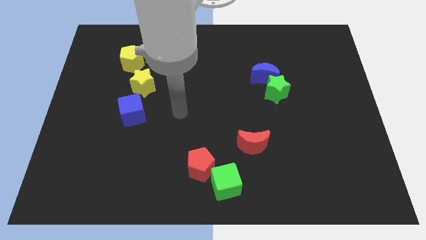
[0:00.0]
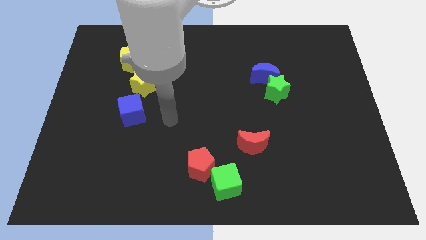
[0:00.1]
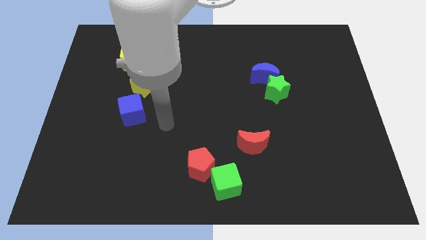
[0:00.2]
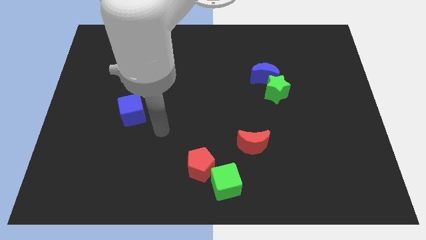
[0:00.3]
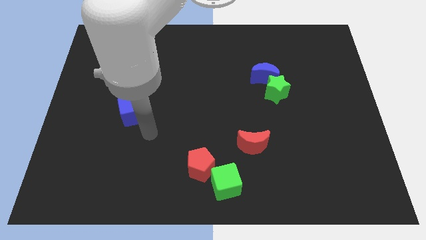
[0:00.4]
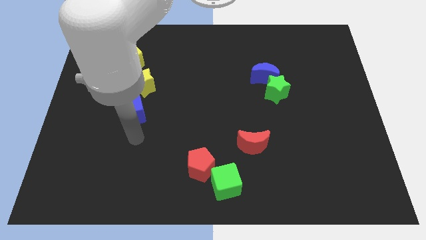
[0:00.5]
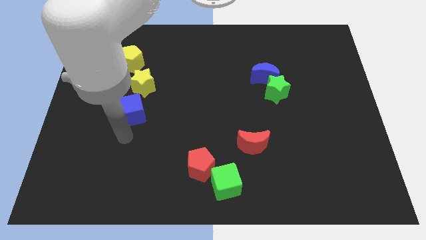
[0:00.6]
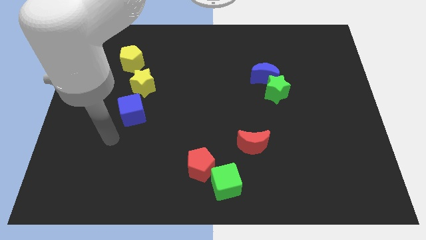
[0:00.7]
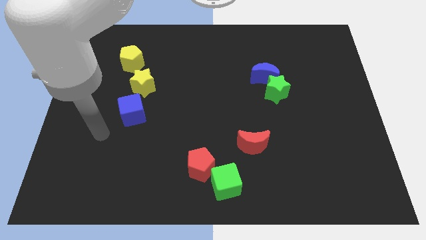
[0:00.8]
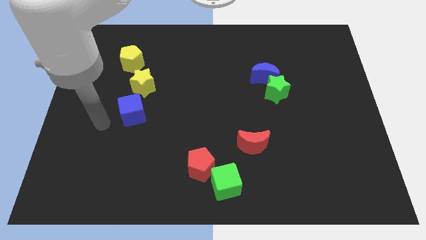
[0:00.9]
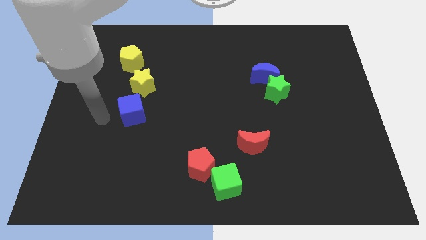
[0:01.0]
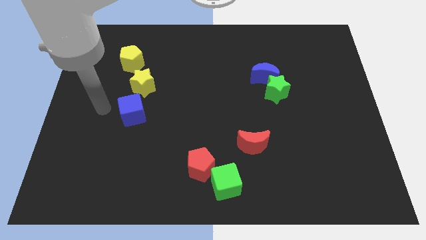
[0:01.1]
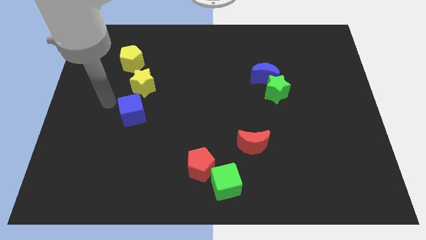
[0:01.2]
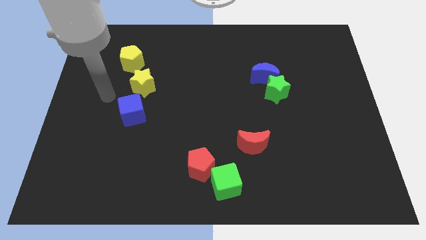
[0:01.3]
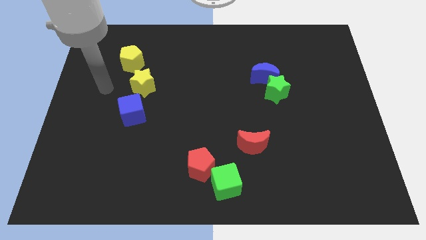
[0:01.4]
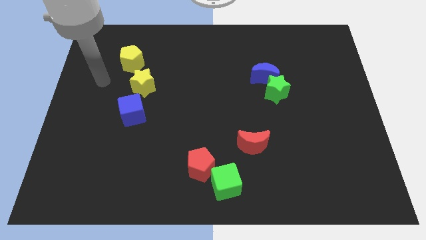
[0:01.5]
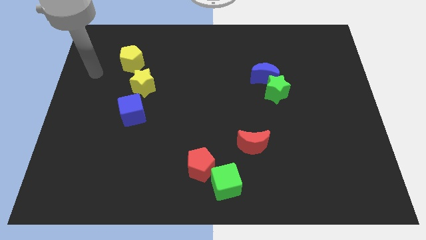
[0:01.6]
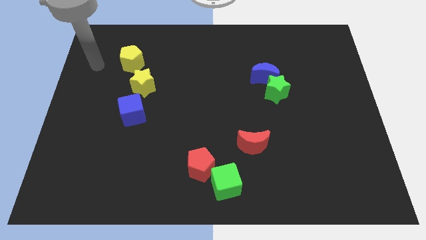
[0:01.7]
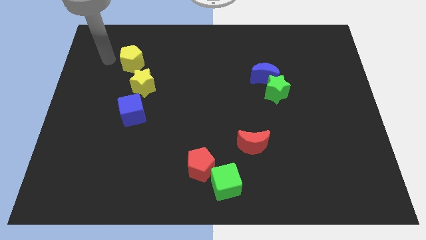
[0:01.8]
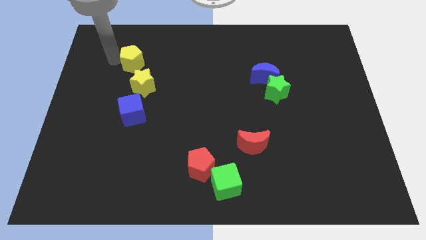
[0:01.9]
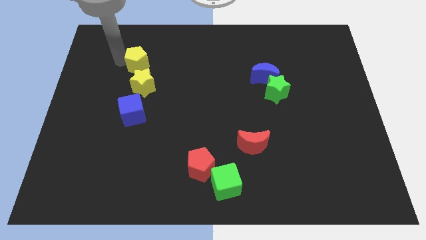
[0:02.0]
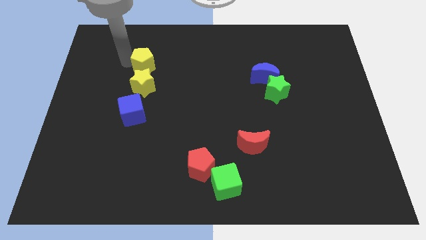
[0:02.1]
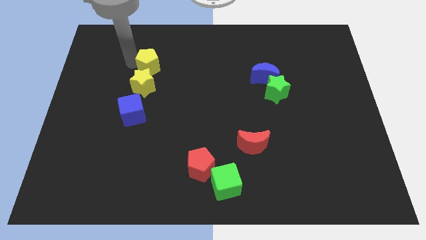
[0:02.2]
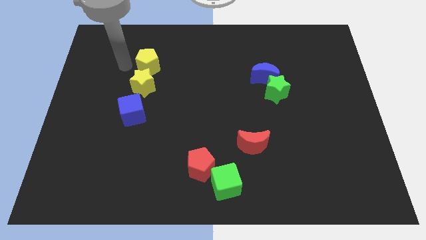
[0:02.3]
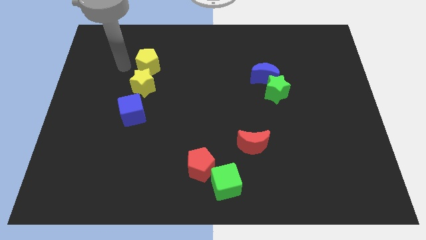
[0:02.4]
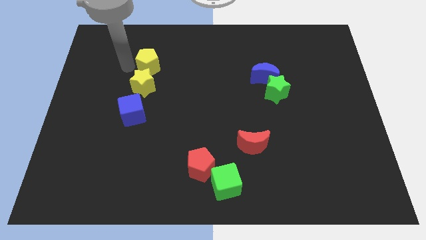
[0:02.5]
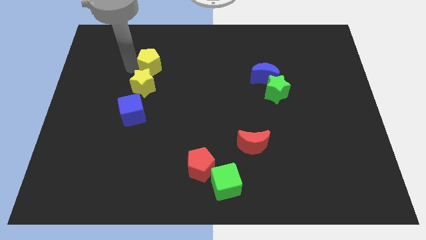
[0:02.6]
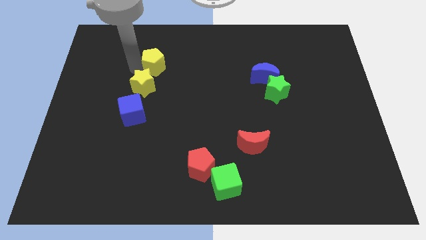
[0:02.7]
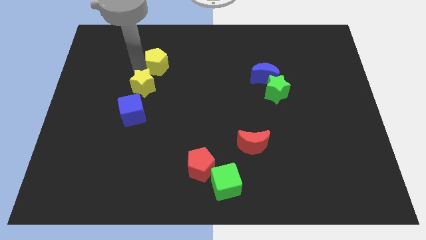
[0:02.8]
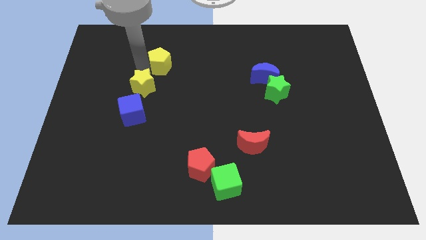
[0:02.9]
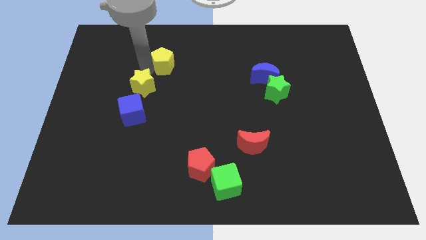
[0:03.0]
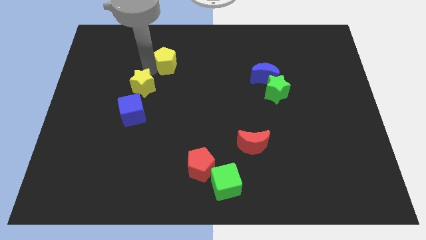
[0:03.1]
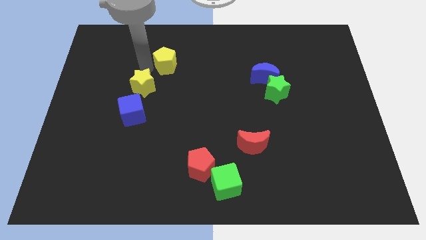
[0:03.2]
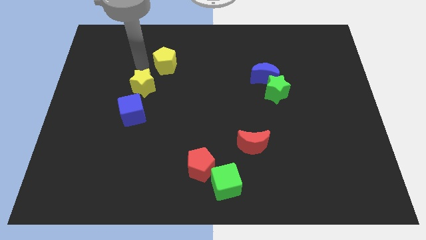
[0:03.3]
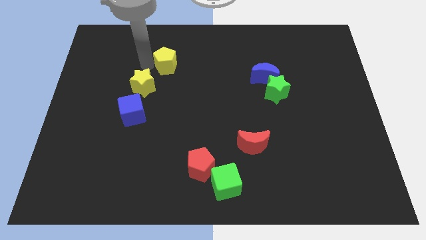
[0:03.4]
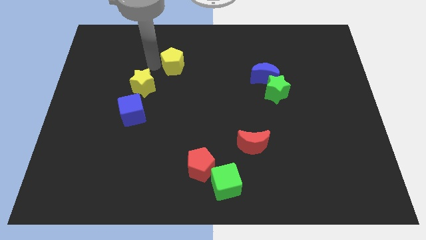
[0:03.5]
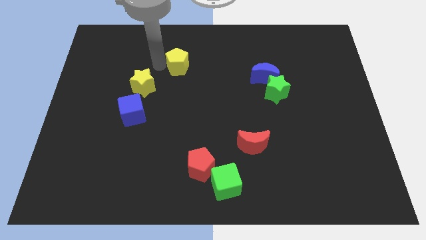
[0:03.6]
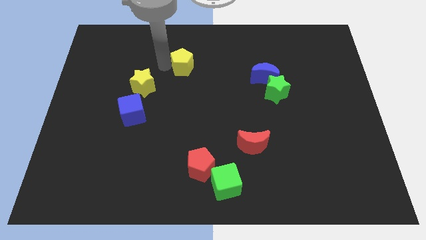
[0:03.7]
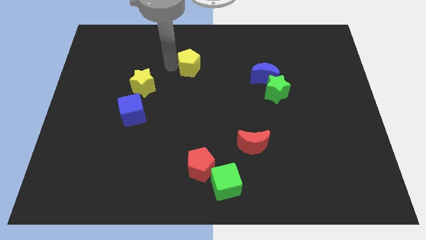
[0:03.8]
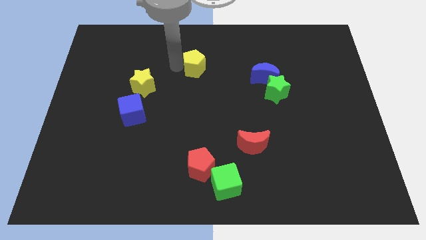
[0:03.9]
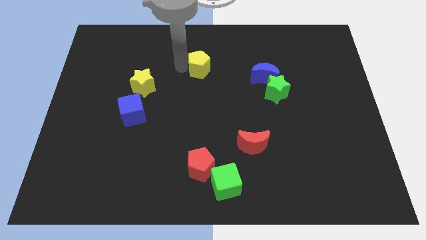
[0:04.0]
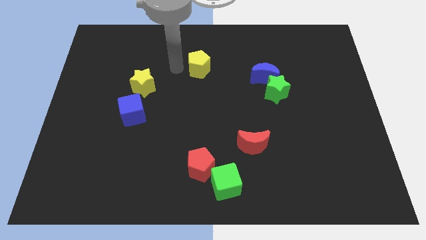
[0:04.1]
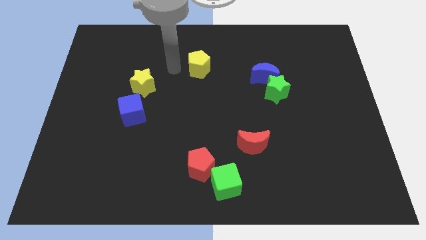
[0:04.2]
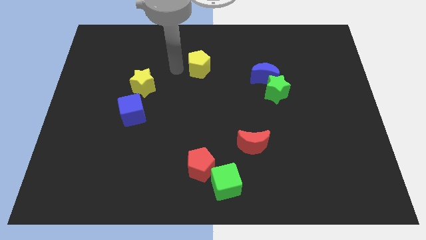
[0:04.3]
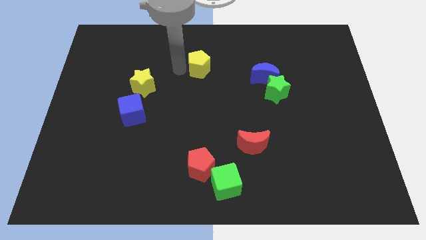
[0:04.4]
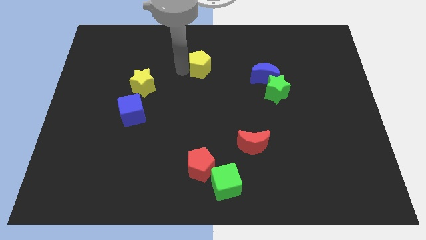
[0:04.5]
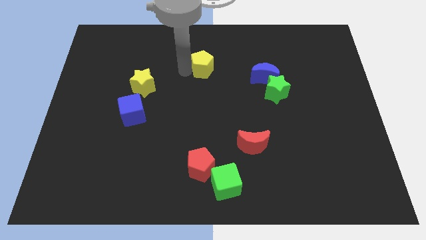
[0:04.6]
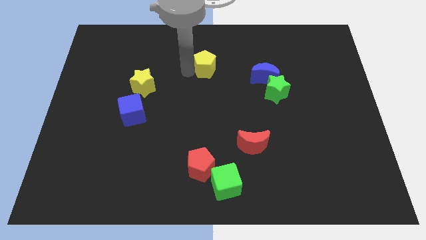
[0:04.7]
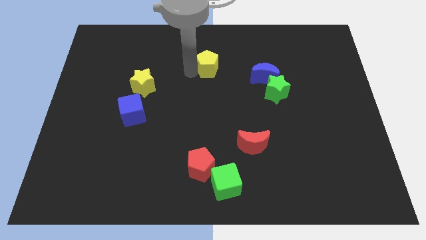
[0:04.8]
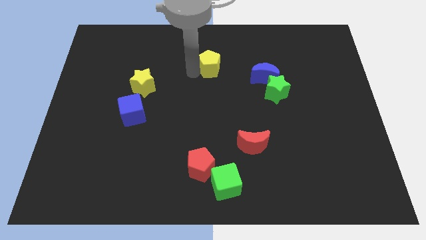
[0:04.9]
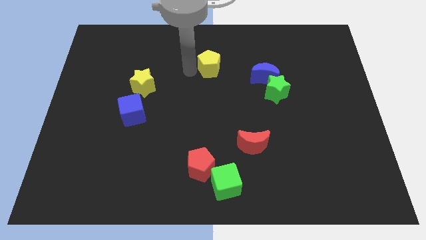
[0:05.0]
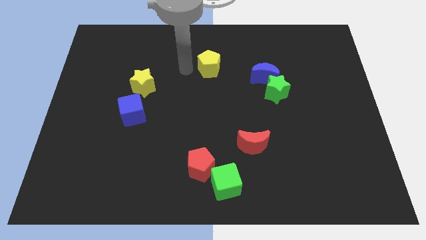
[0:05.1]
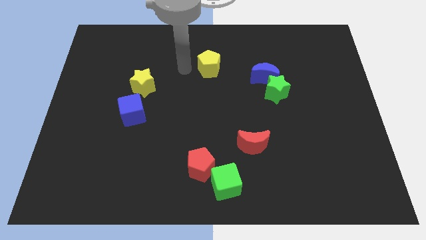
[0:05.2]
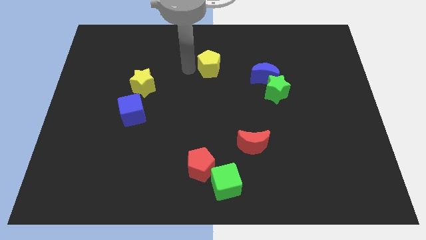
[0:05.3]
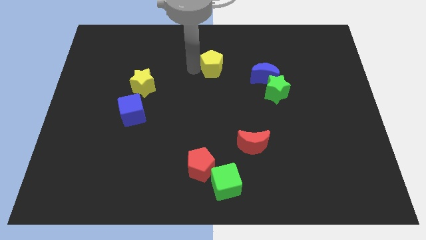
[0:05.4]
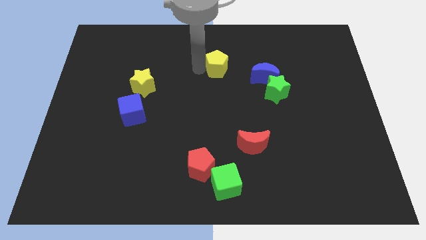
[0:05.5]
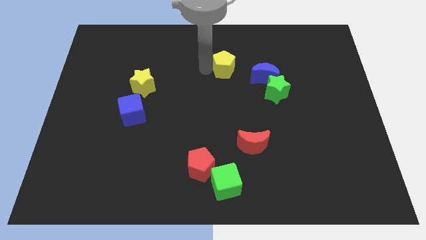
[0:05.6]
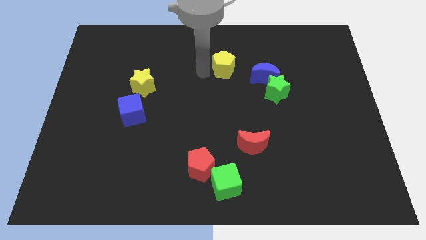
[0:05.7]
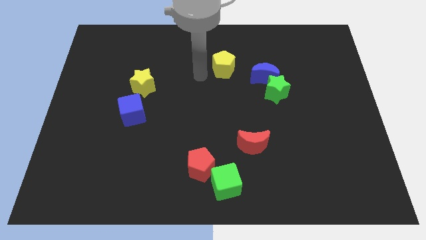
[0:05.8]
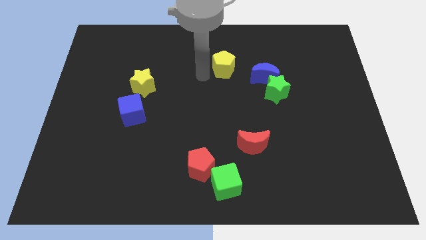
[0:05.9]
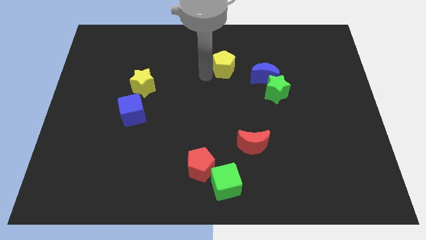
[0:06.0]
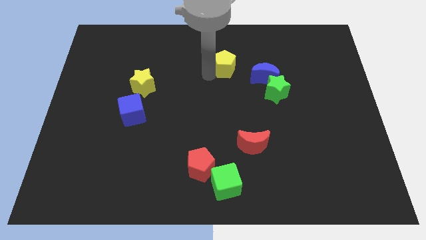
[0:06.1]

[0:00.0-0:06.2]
slide the yellow pentagon to the top left side of the blue moon
